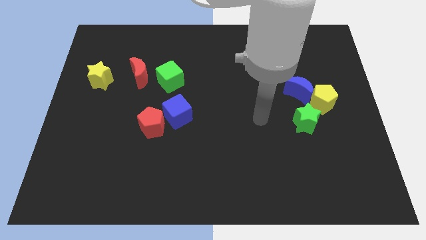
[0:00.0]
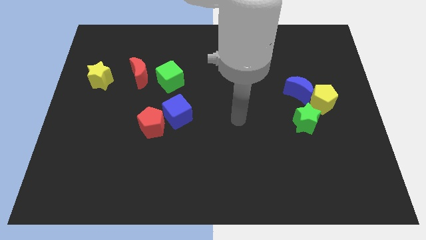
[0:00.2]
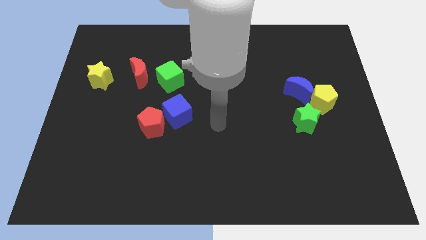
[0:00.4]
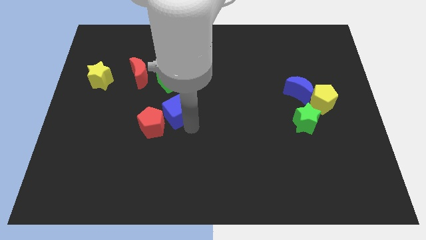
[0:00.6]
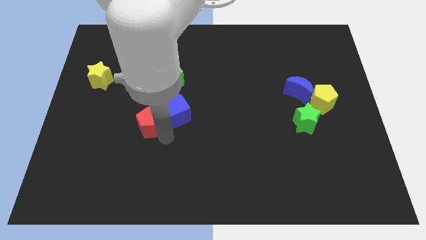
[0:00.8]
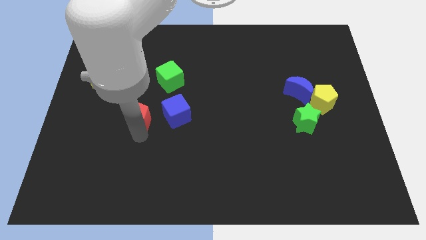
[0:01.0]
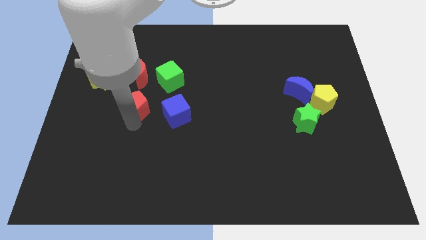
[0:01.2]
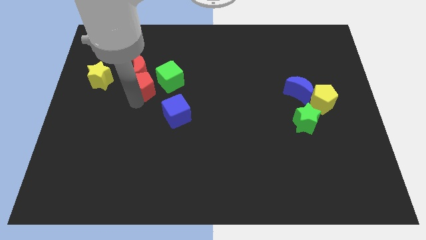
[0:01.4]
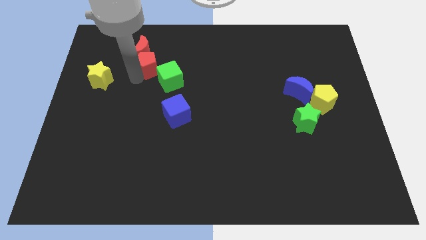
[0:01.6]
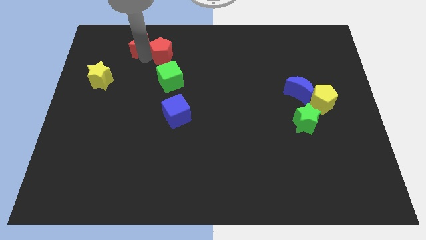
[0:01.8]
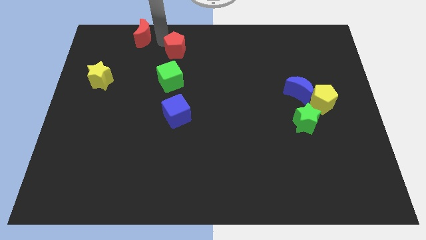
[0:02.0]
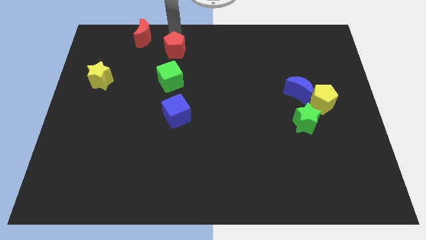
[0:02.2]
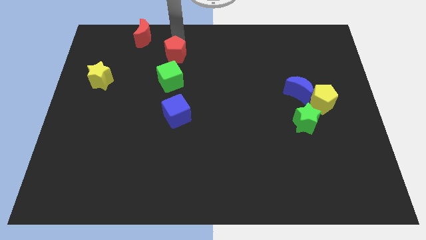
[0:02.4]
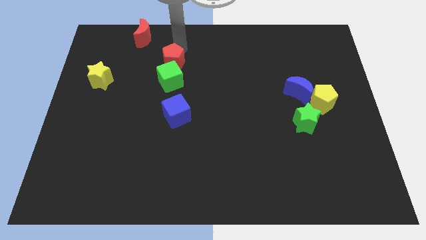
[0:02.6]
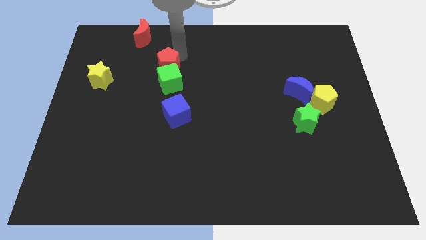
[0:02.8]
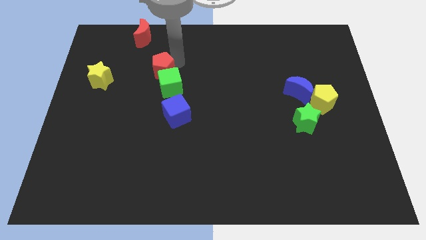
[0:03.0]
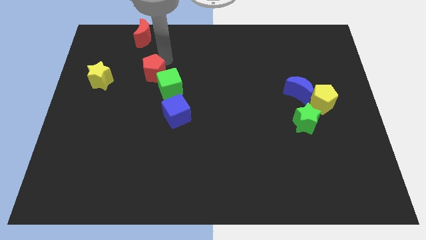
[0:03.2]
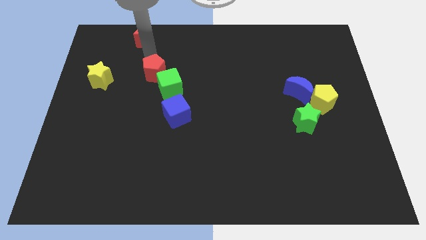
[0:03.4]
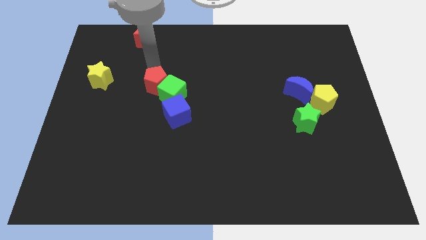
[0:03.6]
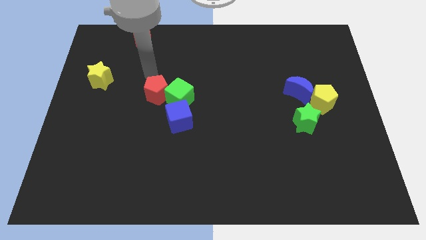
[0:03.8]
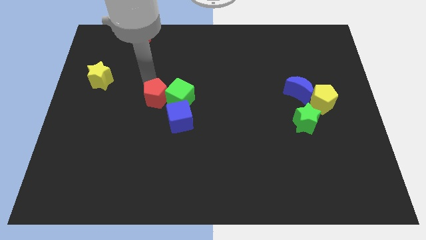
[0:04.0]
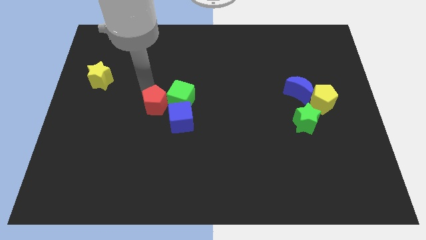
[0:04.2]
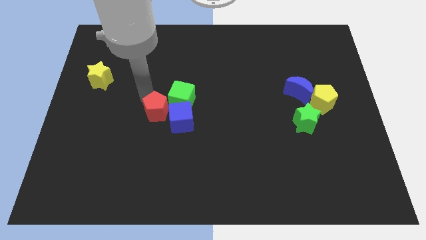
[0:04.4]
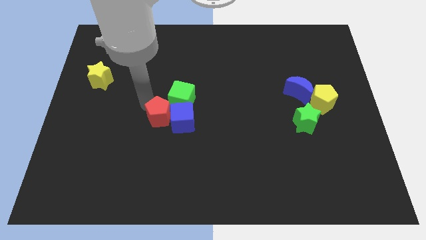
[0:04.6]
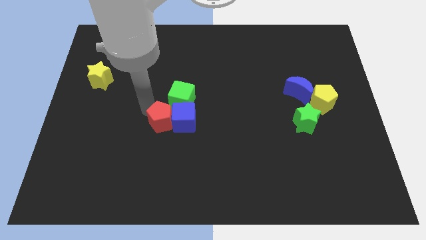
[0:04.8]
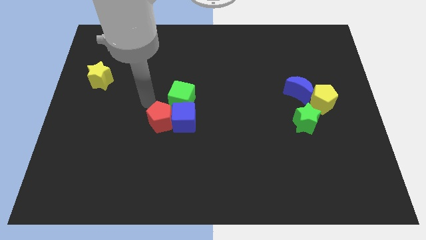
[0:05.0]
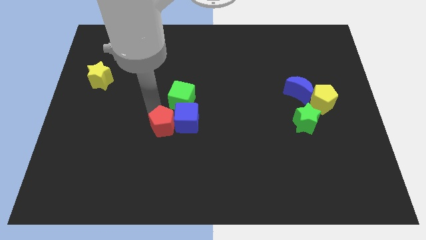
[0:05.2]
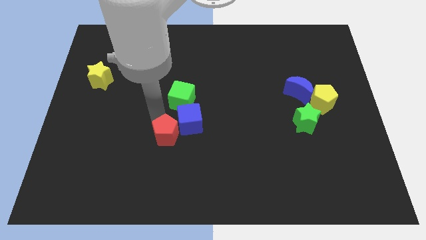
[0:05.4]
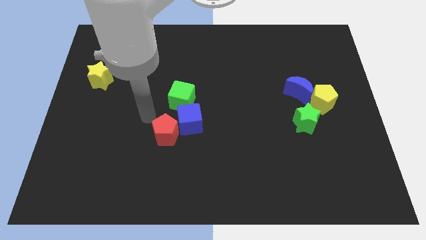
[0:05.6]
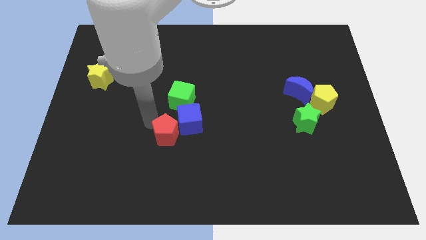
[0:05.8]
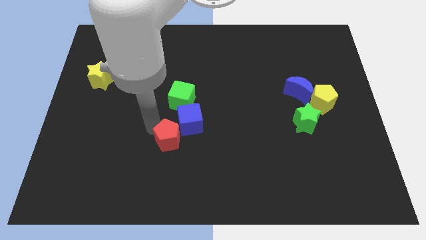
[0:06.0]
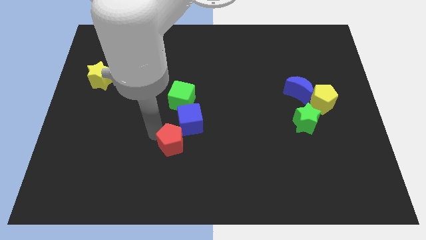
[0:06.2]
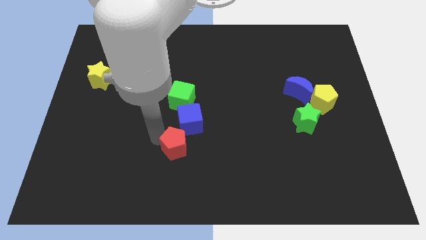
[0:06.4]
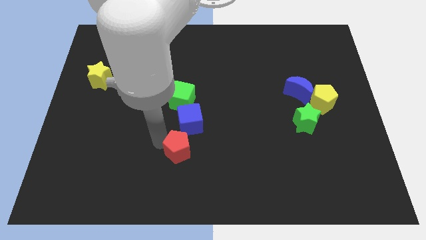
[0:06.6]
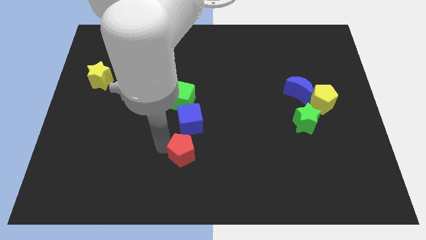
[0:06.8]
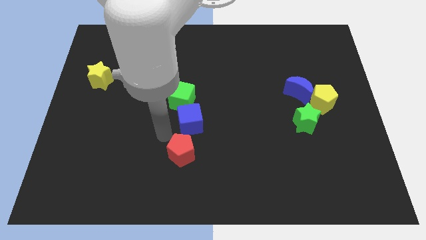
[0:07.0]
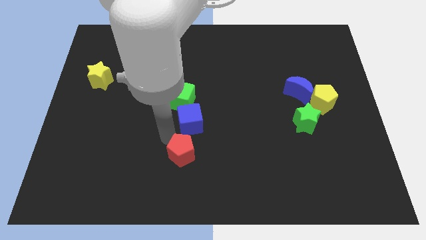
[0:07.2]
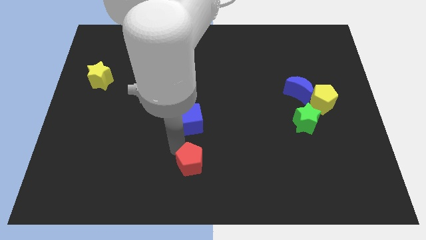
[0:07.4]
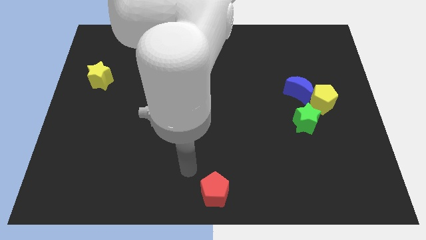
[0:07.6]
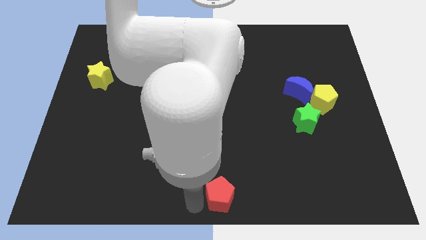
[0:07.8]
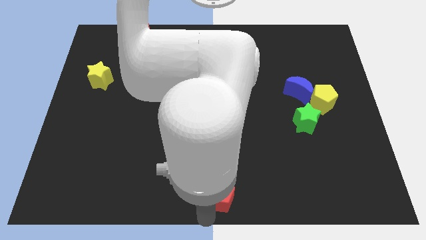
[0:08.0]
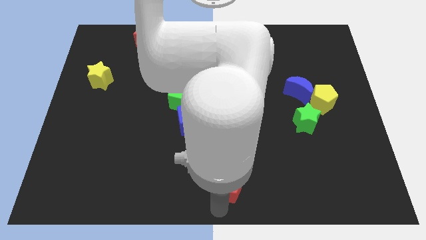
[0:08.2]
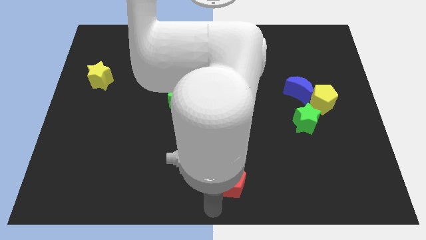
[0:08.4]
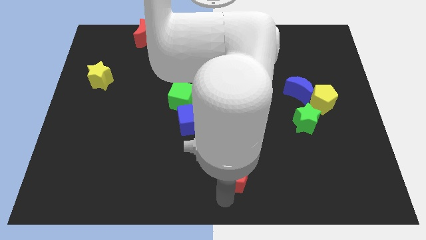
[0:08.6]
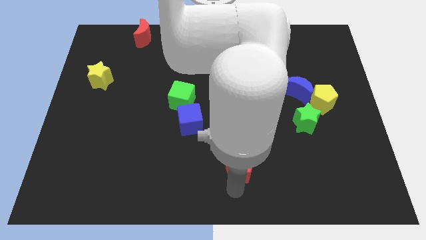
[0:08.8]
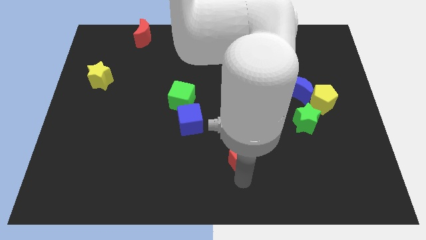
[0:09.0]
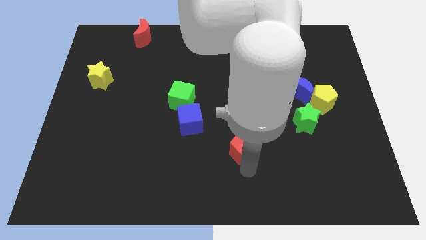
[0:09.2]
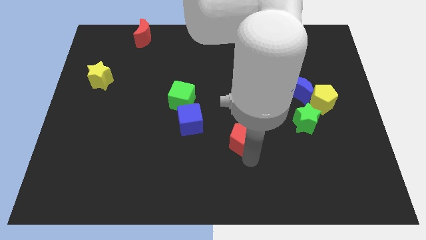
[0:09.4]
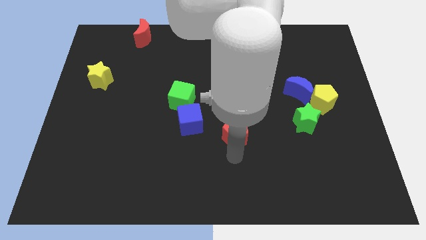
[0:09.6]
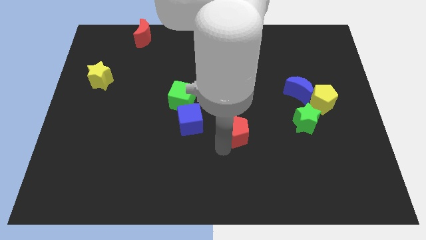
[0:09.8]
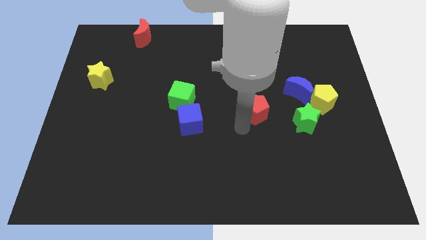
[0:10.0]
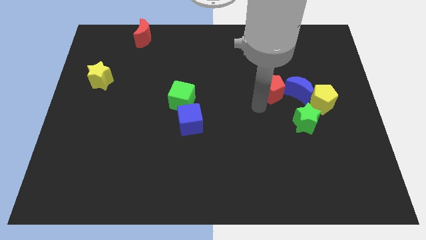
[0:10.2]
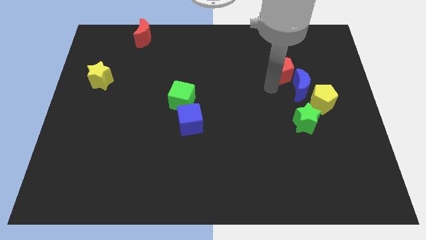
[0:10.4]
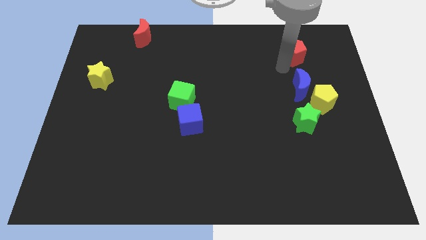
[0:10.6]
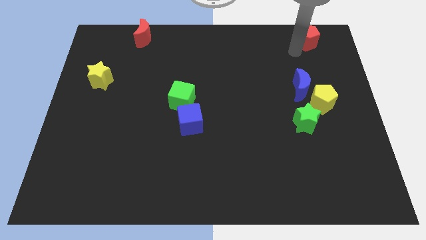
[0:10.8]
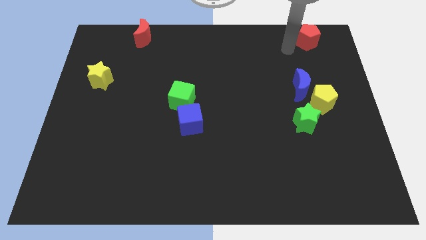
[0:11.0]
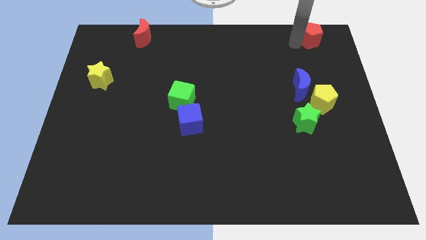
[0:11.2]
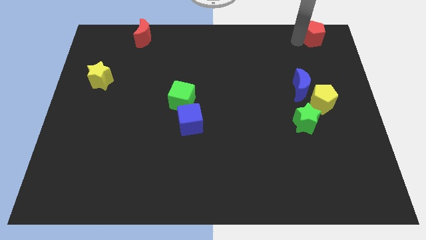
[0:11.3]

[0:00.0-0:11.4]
move the red pentagon to the top right
